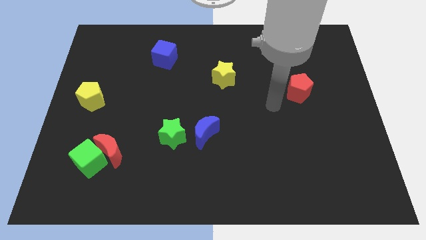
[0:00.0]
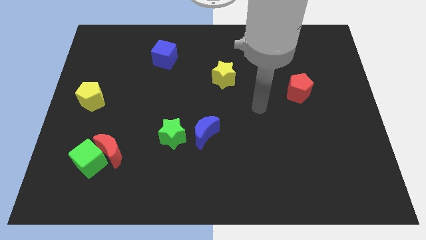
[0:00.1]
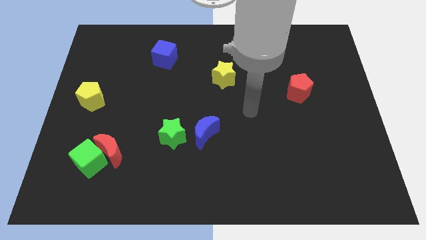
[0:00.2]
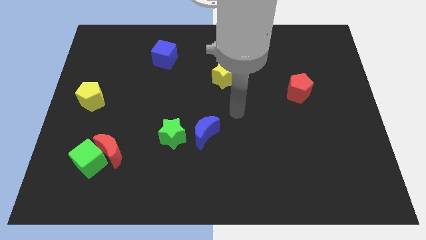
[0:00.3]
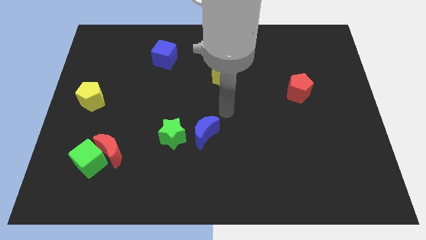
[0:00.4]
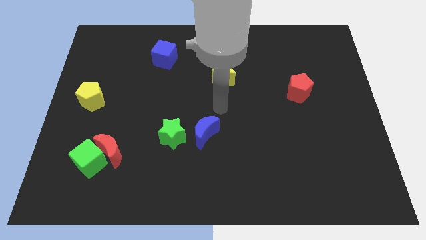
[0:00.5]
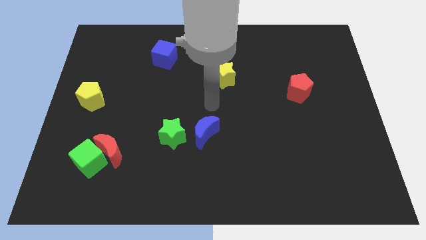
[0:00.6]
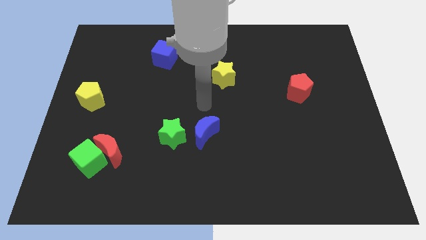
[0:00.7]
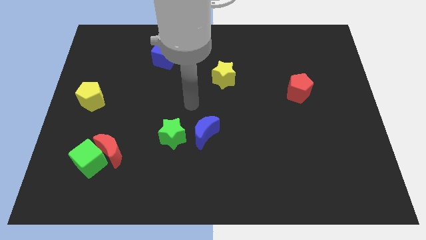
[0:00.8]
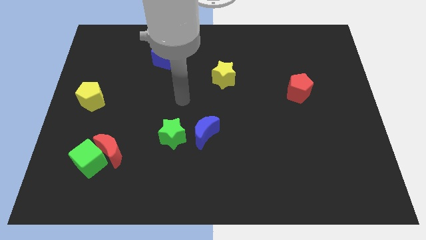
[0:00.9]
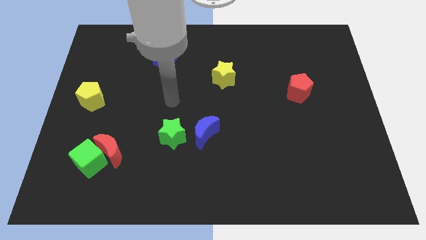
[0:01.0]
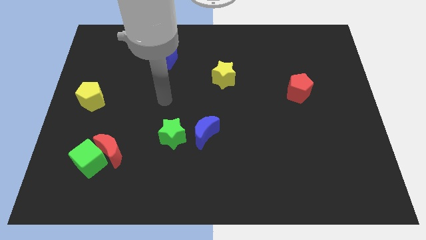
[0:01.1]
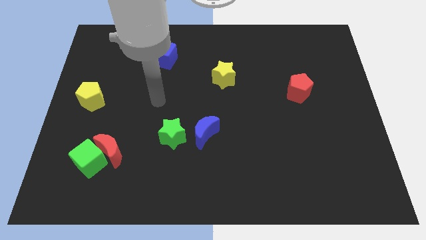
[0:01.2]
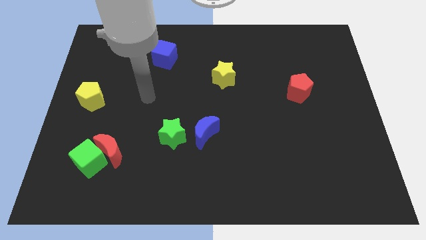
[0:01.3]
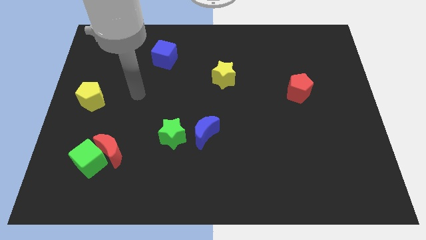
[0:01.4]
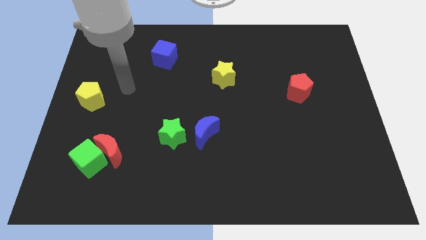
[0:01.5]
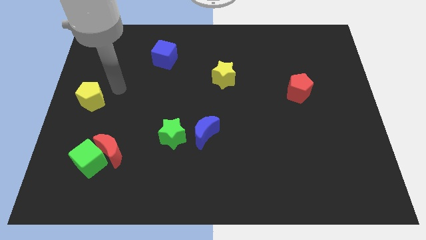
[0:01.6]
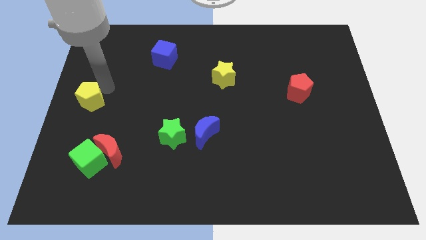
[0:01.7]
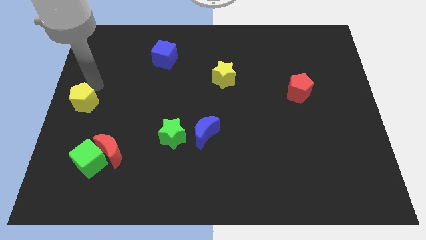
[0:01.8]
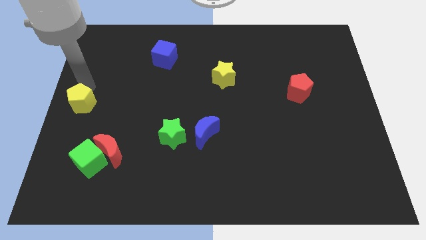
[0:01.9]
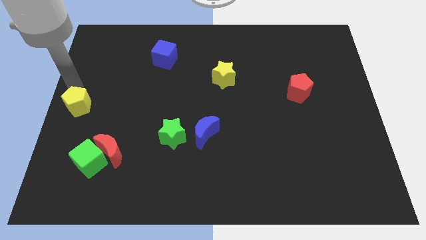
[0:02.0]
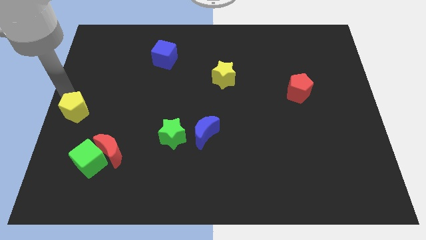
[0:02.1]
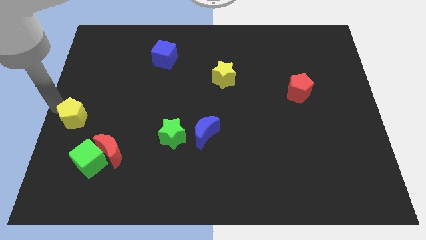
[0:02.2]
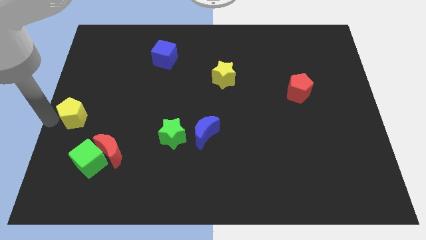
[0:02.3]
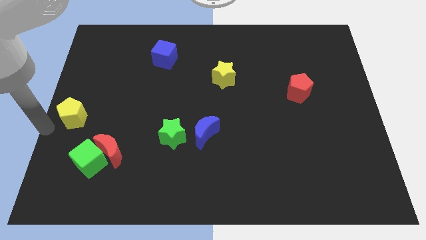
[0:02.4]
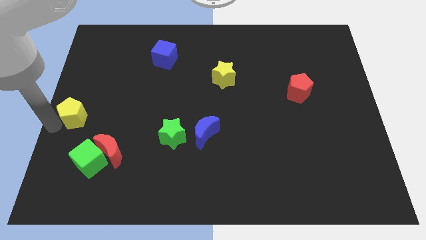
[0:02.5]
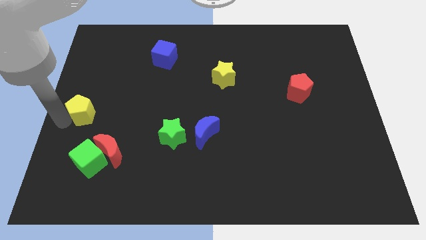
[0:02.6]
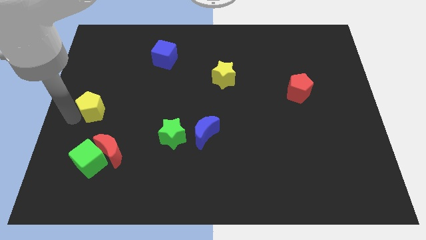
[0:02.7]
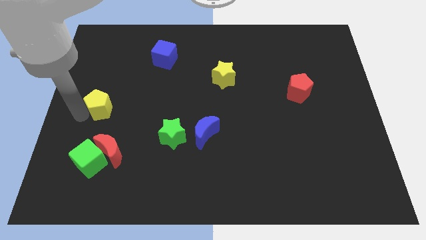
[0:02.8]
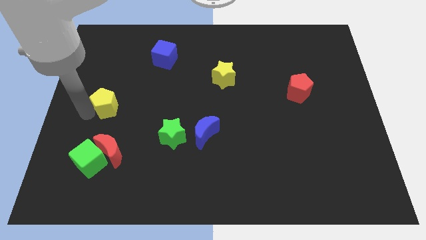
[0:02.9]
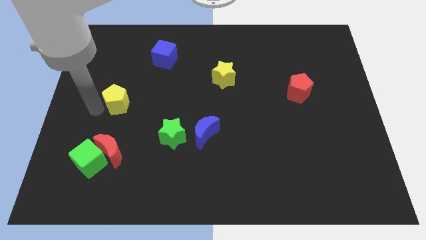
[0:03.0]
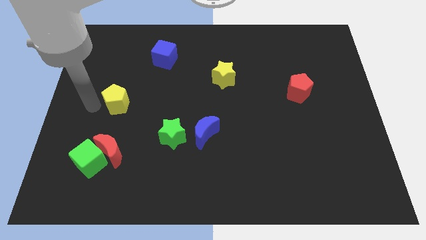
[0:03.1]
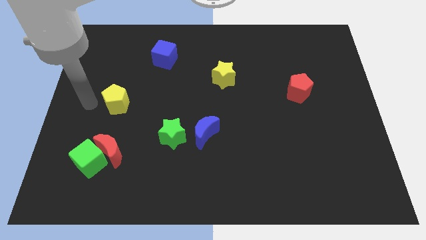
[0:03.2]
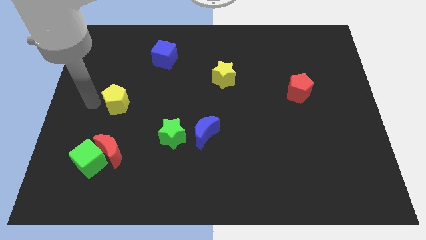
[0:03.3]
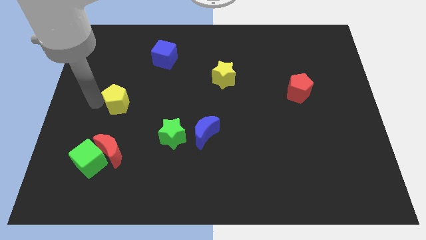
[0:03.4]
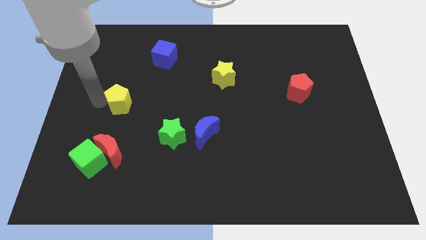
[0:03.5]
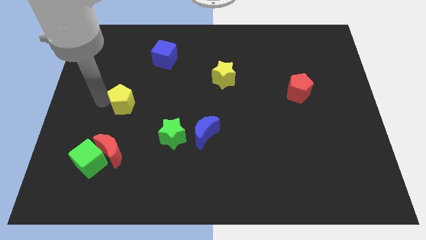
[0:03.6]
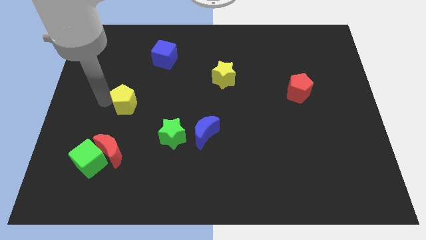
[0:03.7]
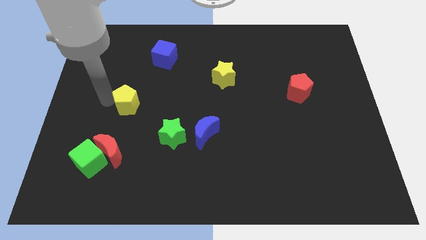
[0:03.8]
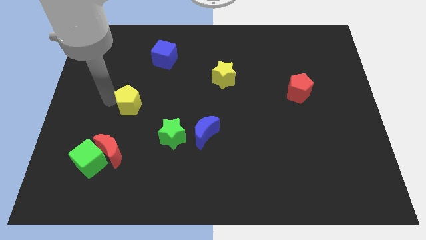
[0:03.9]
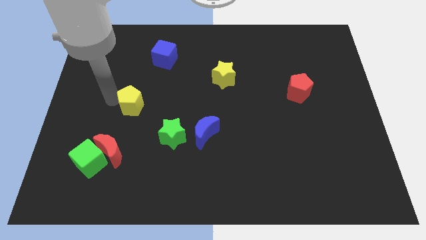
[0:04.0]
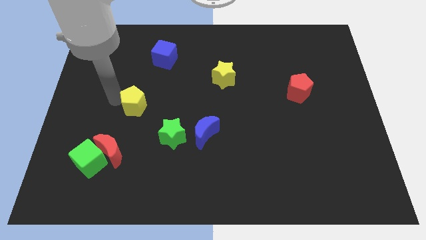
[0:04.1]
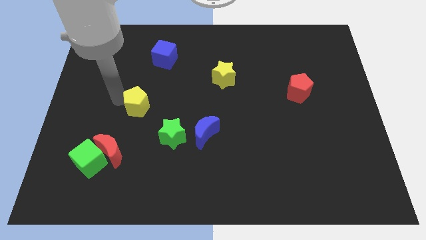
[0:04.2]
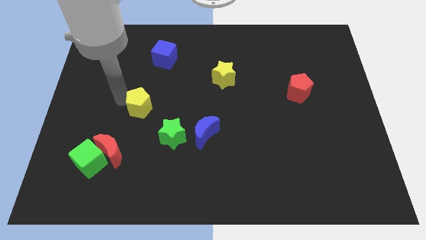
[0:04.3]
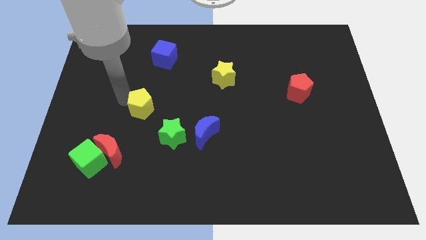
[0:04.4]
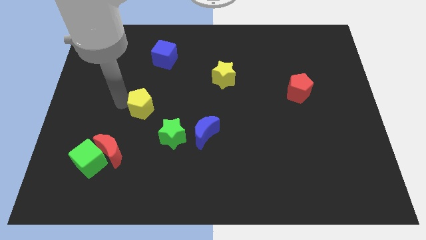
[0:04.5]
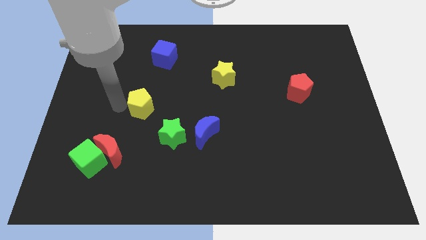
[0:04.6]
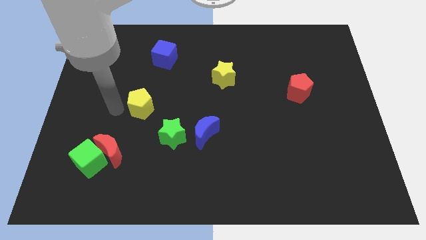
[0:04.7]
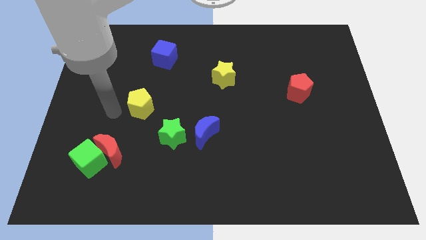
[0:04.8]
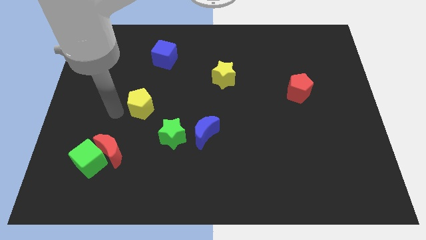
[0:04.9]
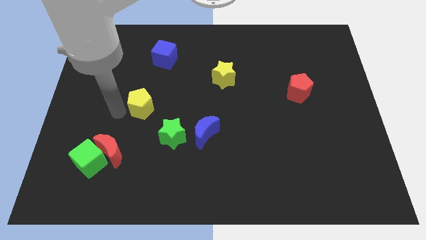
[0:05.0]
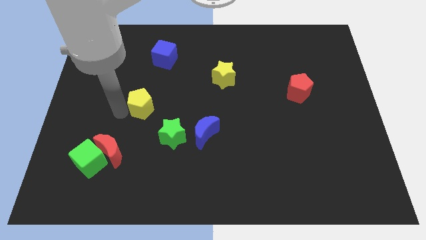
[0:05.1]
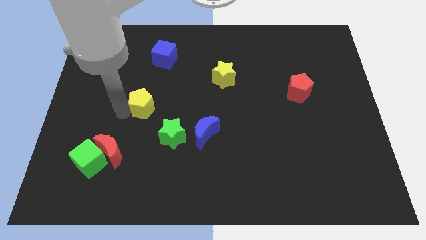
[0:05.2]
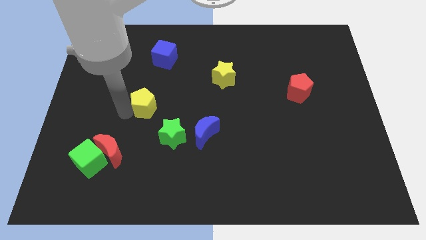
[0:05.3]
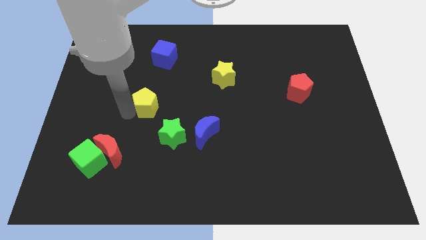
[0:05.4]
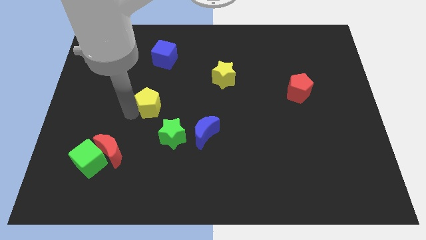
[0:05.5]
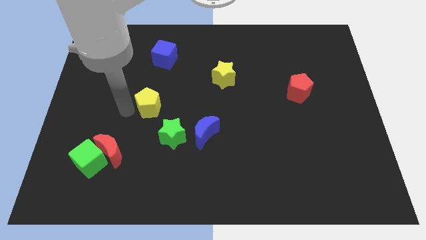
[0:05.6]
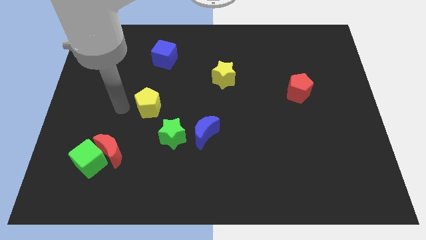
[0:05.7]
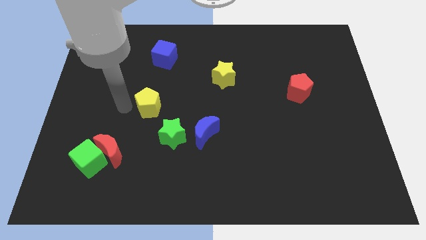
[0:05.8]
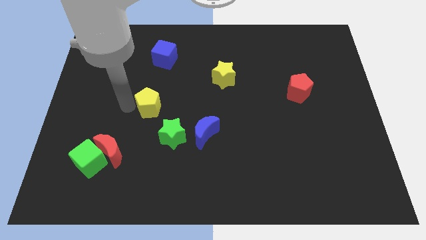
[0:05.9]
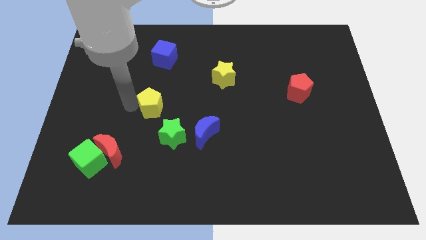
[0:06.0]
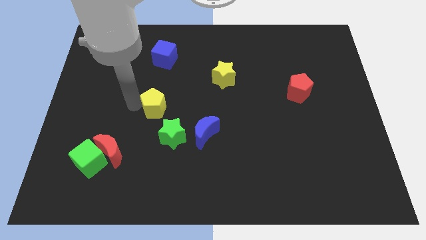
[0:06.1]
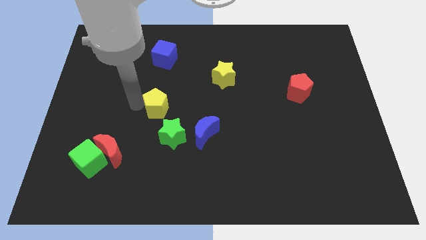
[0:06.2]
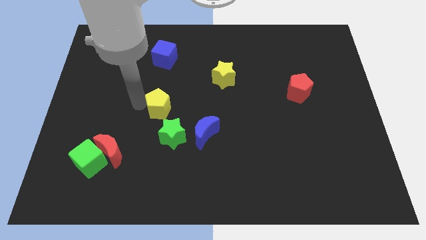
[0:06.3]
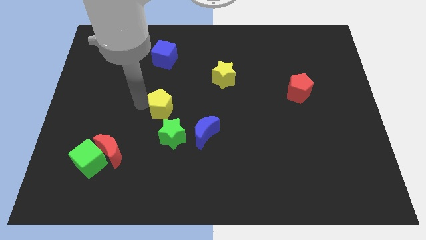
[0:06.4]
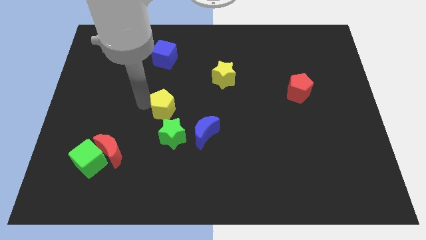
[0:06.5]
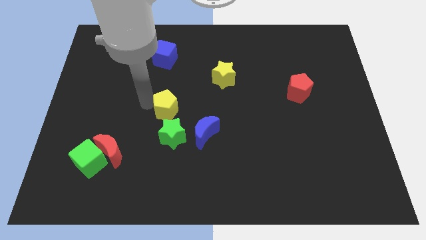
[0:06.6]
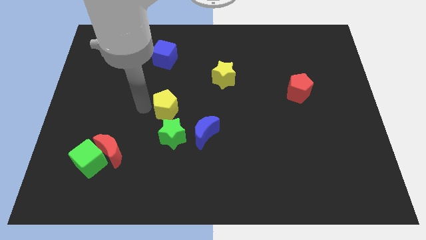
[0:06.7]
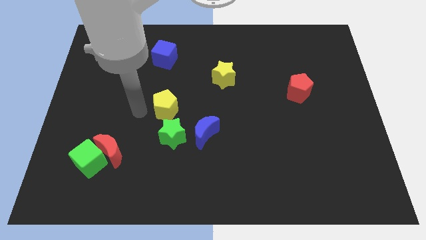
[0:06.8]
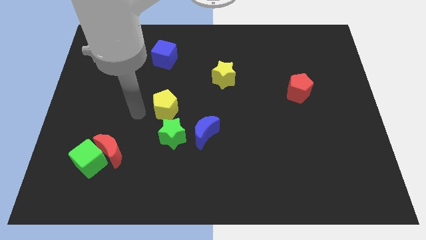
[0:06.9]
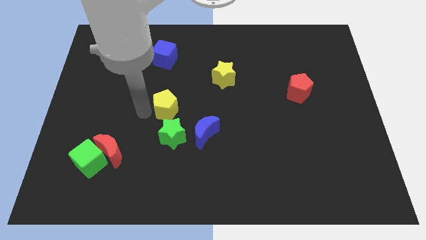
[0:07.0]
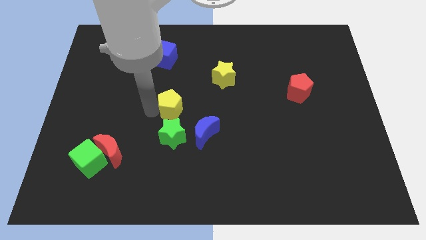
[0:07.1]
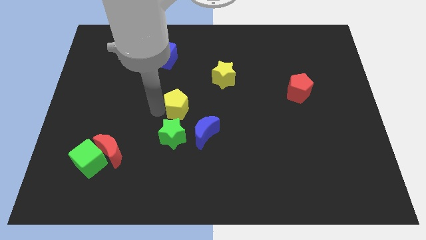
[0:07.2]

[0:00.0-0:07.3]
move the yellow pentagon to the right

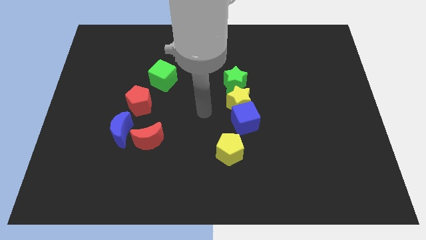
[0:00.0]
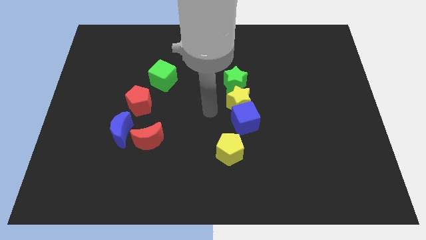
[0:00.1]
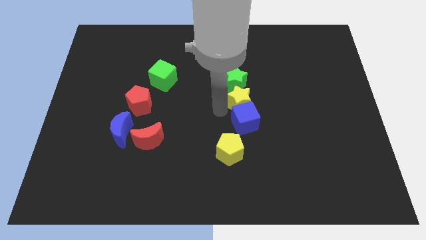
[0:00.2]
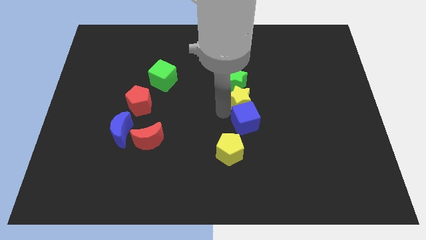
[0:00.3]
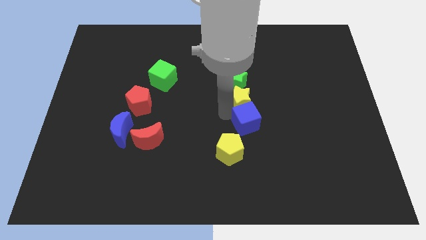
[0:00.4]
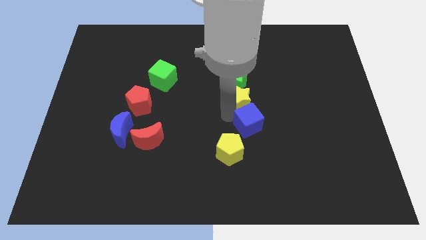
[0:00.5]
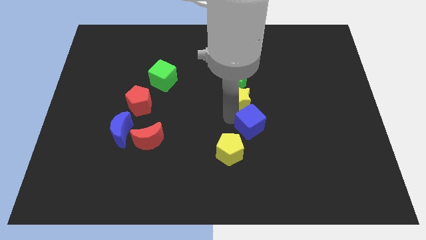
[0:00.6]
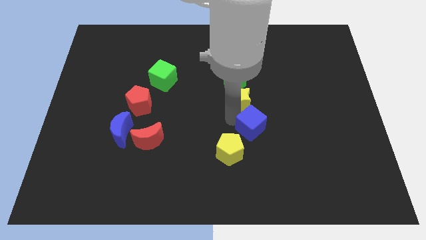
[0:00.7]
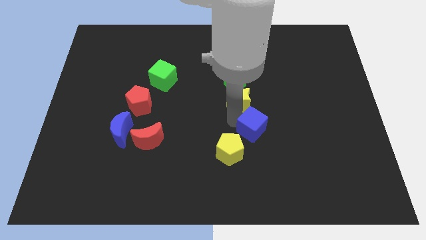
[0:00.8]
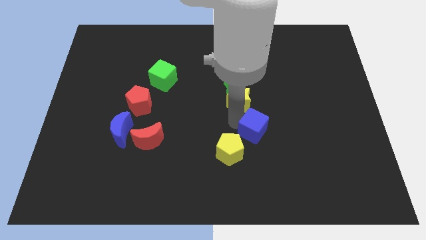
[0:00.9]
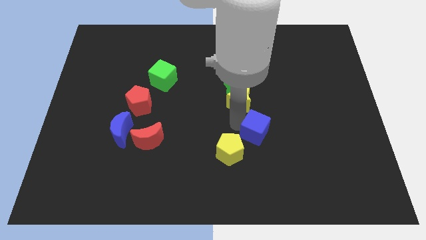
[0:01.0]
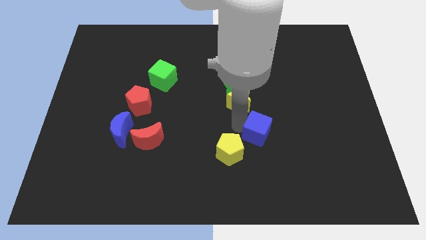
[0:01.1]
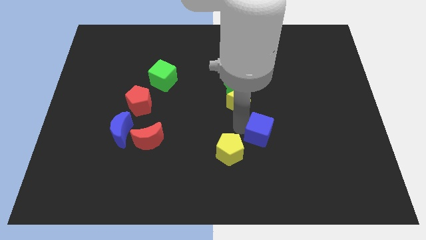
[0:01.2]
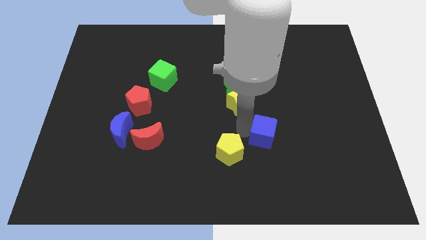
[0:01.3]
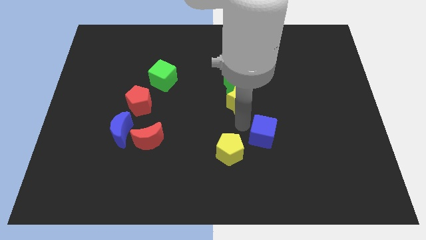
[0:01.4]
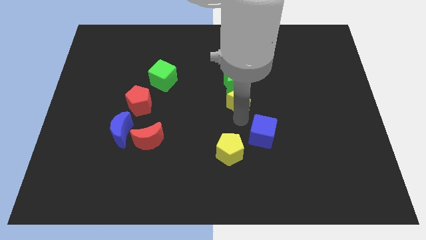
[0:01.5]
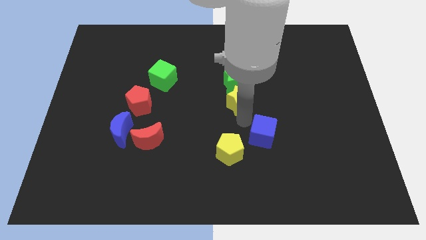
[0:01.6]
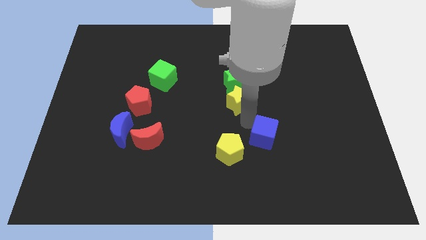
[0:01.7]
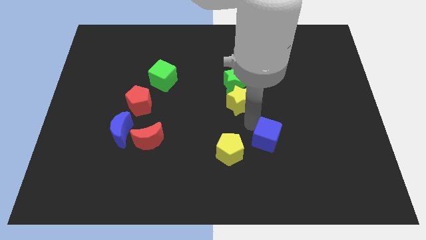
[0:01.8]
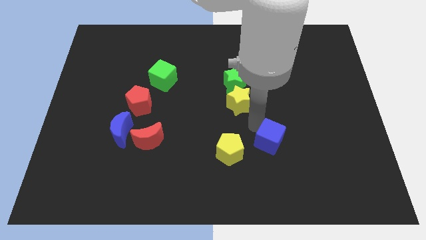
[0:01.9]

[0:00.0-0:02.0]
push the blue cube downwards and right diagonally somewhat
